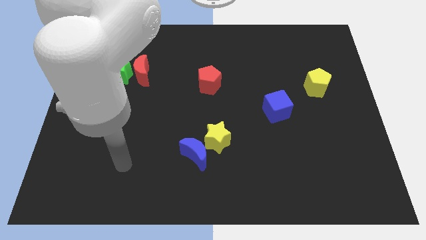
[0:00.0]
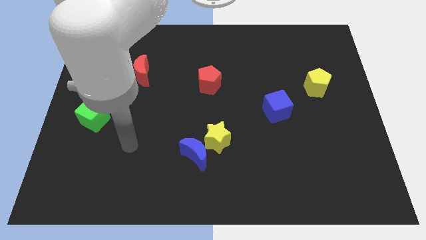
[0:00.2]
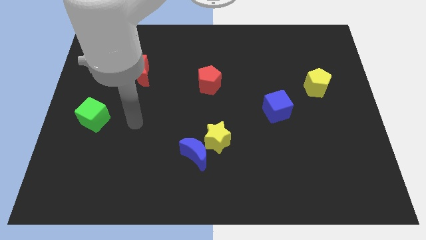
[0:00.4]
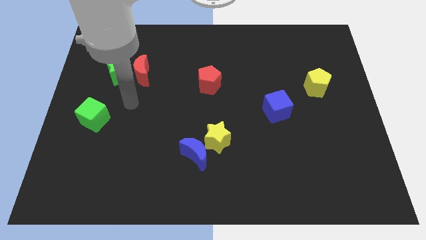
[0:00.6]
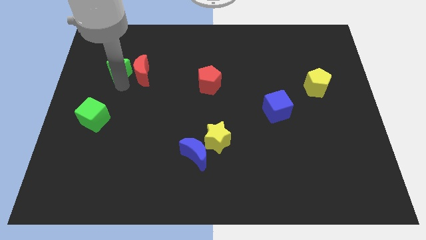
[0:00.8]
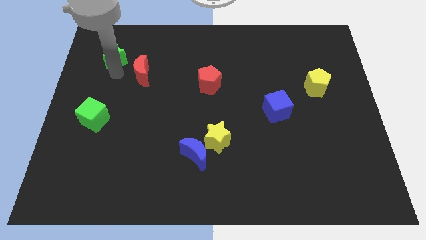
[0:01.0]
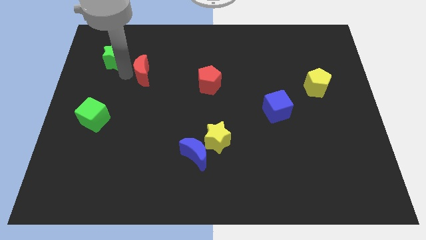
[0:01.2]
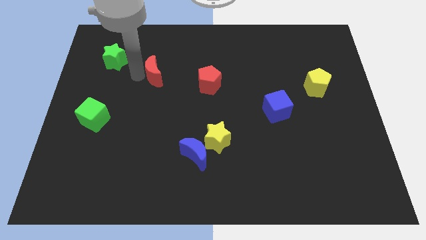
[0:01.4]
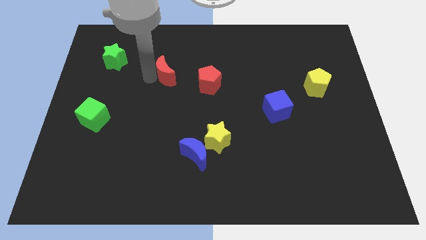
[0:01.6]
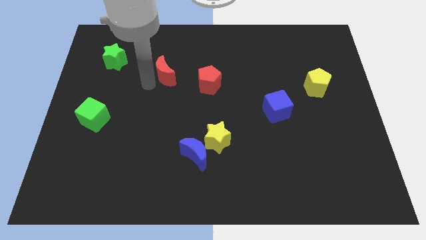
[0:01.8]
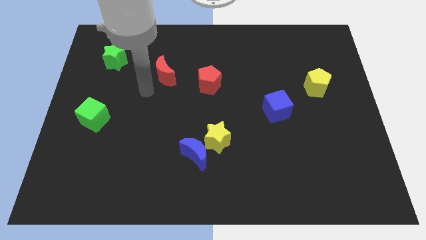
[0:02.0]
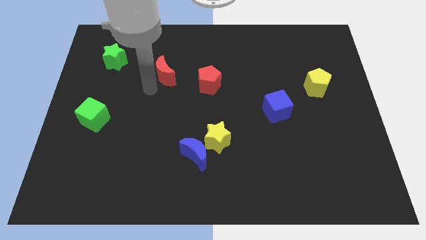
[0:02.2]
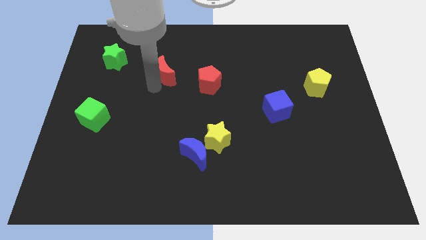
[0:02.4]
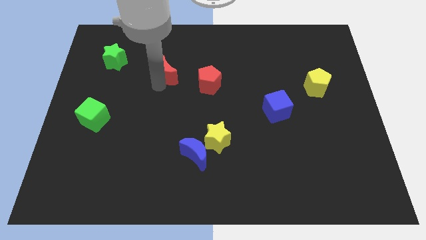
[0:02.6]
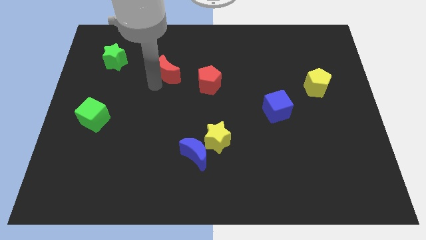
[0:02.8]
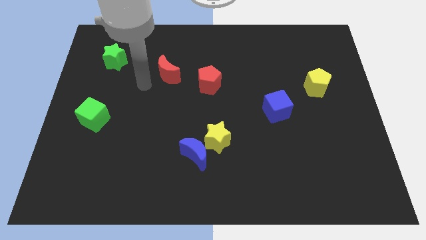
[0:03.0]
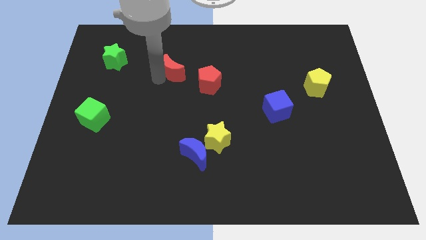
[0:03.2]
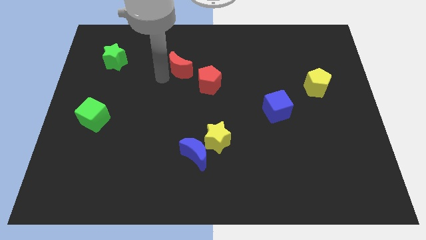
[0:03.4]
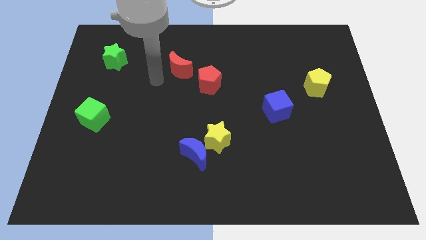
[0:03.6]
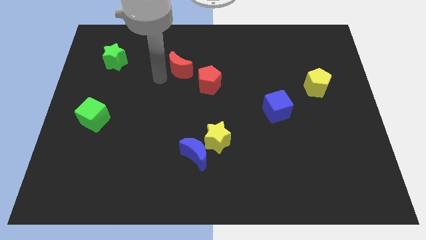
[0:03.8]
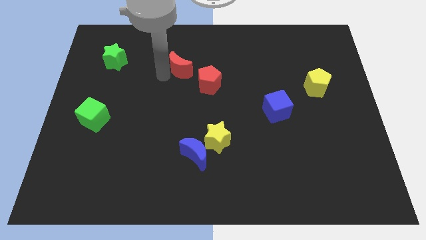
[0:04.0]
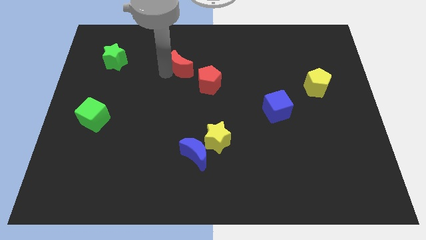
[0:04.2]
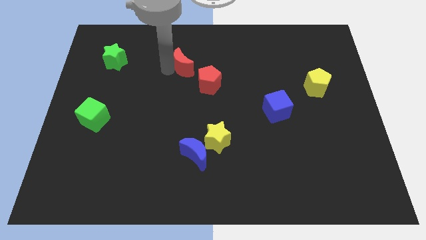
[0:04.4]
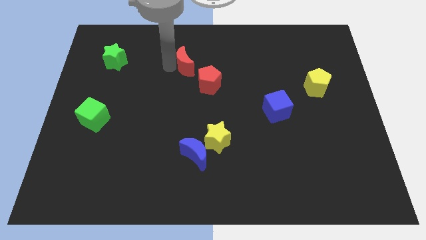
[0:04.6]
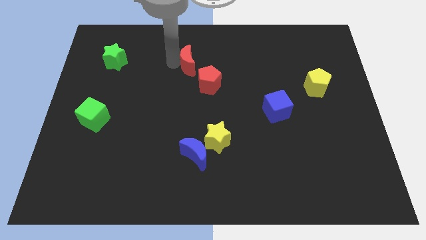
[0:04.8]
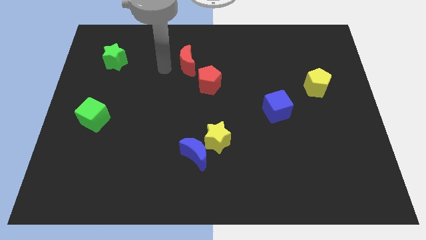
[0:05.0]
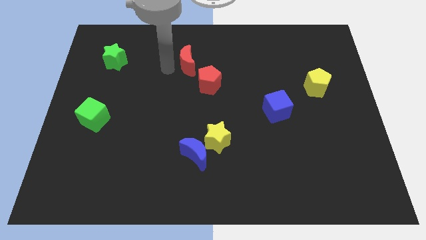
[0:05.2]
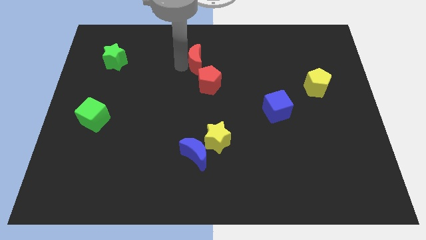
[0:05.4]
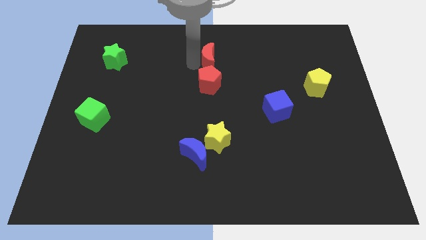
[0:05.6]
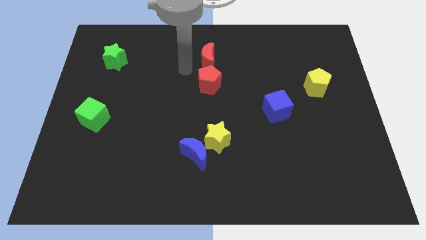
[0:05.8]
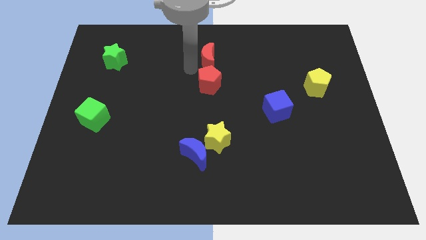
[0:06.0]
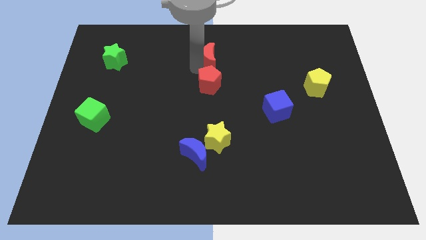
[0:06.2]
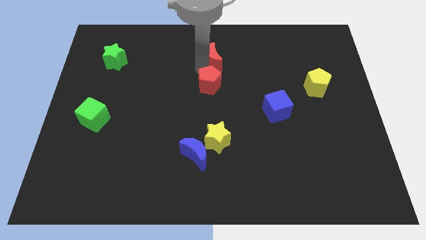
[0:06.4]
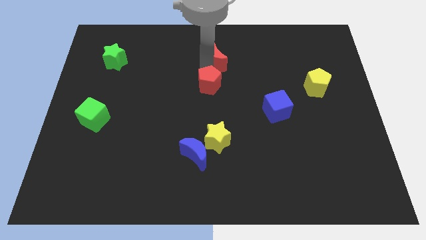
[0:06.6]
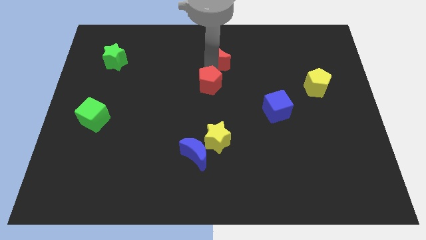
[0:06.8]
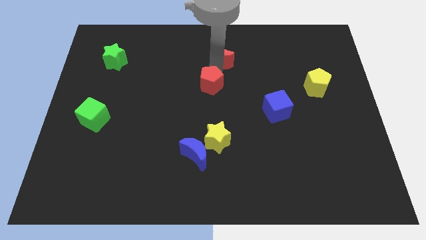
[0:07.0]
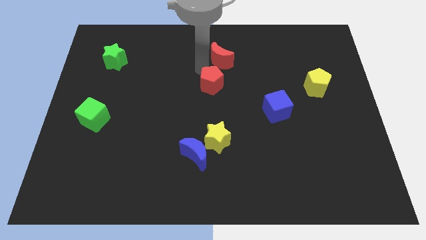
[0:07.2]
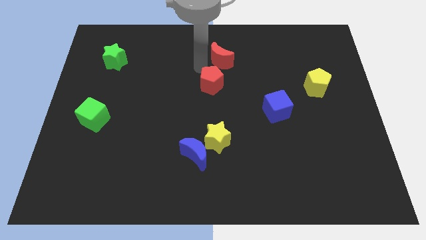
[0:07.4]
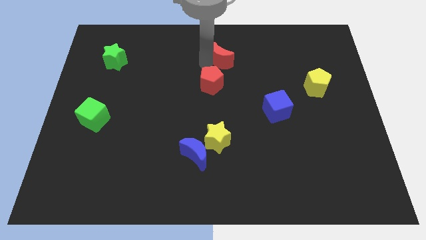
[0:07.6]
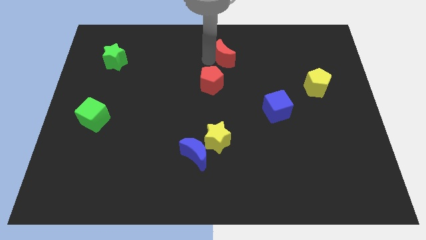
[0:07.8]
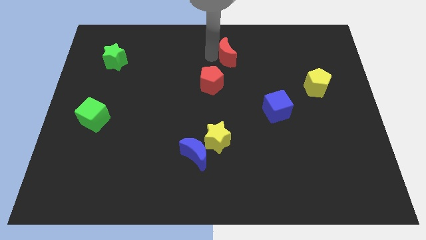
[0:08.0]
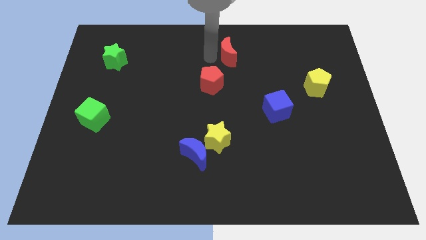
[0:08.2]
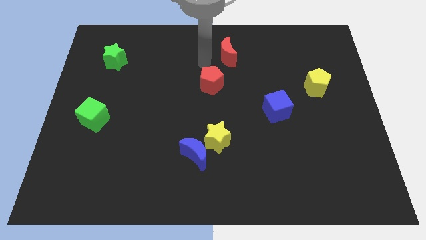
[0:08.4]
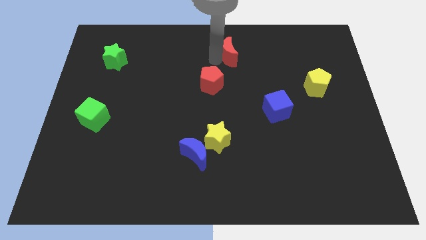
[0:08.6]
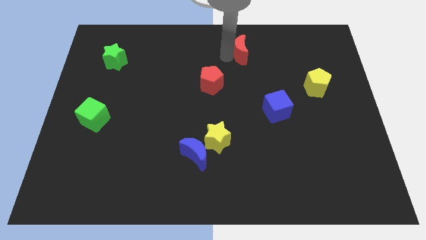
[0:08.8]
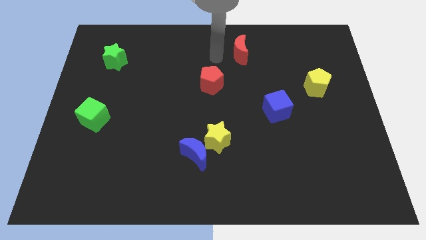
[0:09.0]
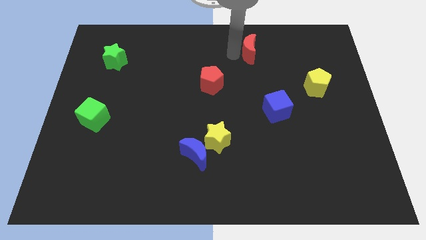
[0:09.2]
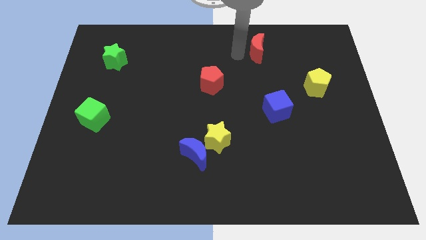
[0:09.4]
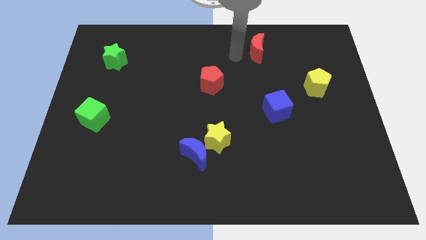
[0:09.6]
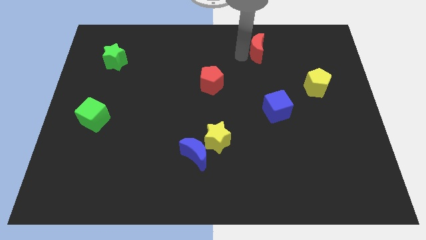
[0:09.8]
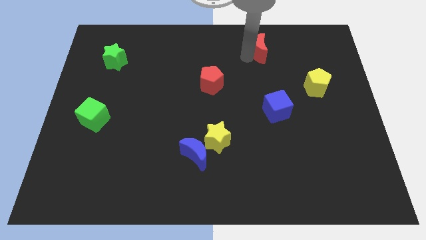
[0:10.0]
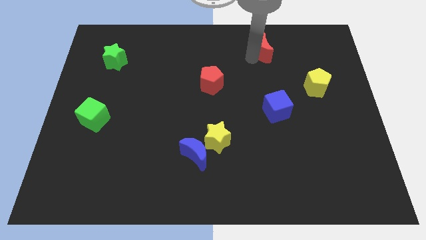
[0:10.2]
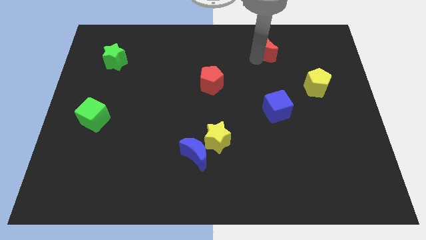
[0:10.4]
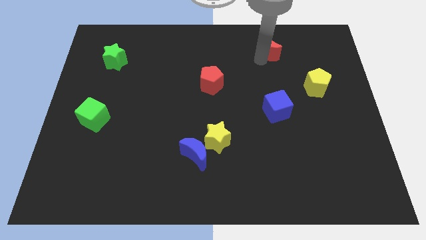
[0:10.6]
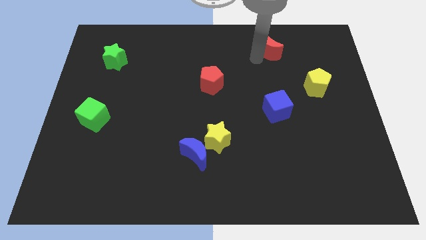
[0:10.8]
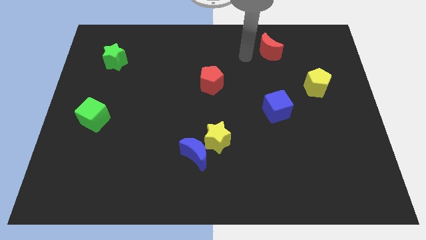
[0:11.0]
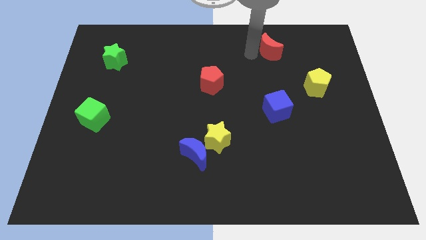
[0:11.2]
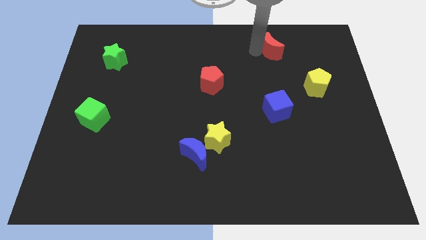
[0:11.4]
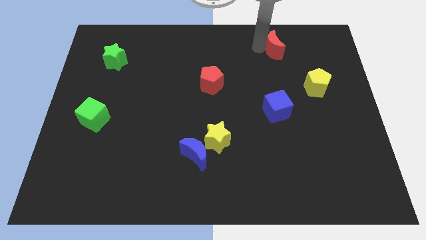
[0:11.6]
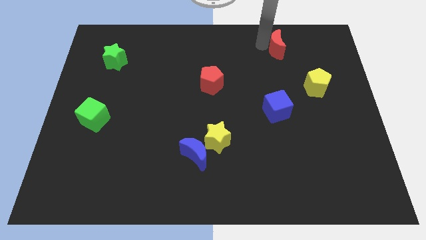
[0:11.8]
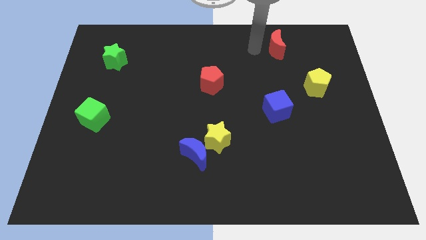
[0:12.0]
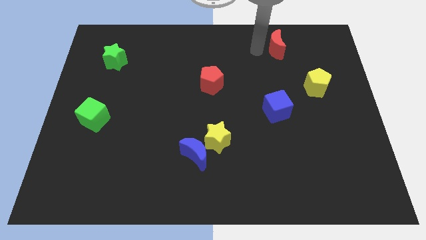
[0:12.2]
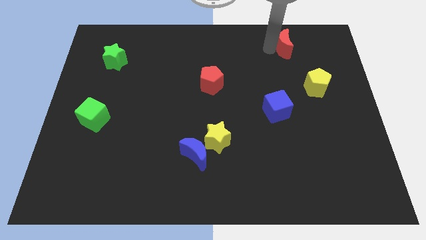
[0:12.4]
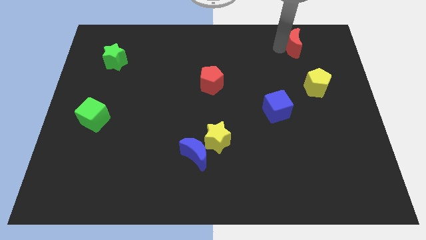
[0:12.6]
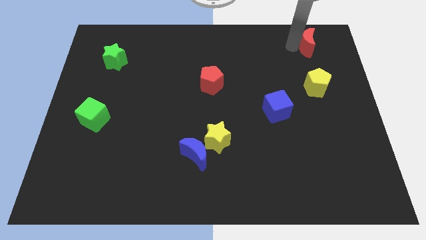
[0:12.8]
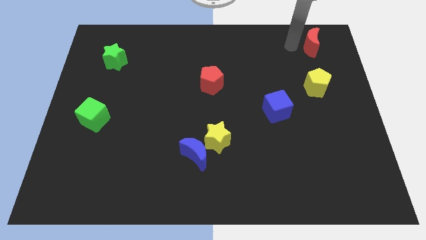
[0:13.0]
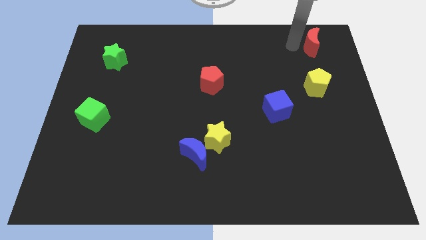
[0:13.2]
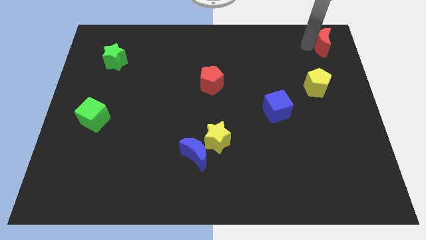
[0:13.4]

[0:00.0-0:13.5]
slide the red moon to the top right of the board

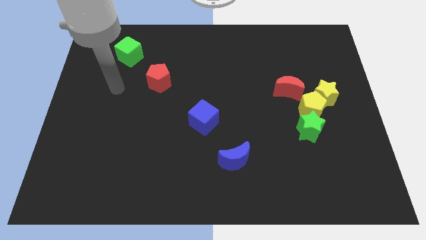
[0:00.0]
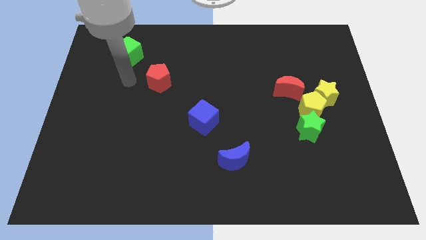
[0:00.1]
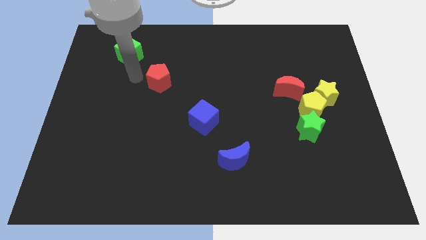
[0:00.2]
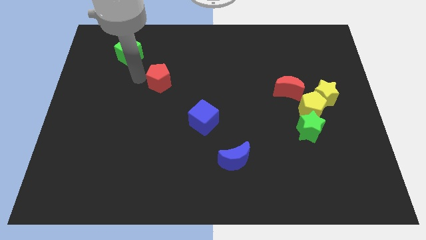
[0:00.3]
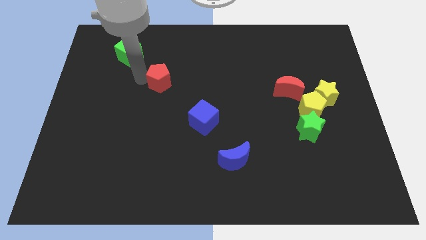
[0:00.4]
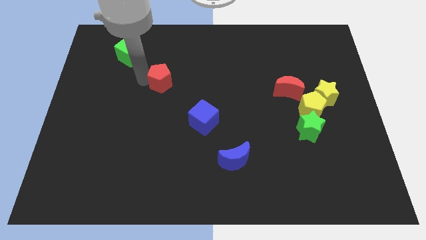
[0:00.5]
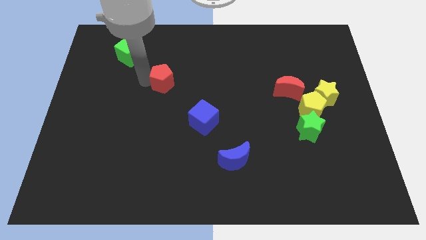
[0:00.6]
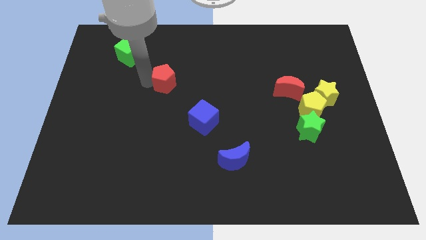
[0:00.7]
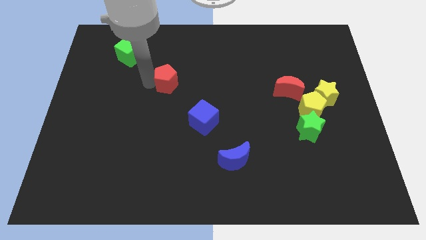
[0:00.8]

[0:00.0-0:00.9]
put the red pentagon to the middle of the board
